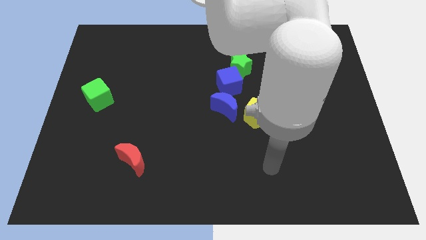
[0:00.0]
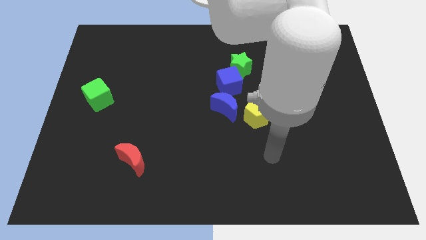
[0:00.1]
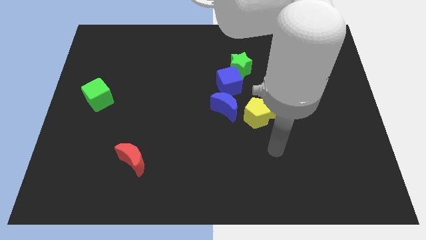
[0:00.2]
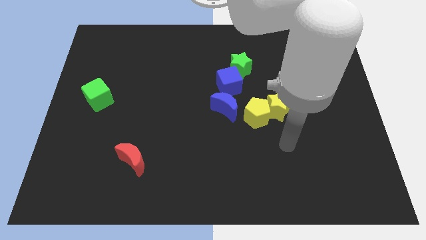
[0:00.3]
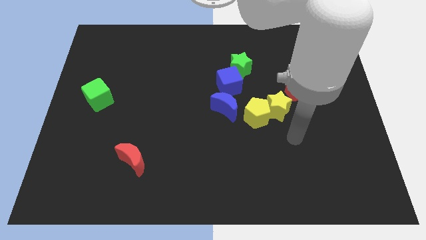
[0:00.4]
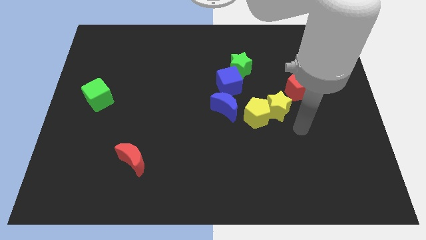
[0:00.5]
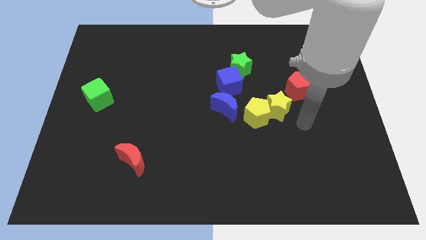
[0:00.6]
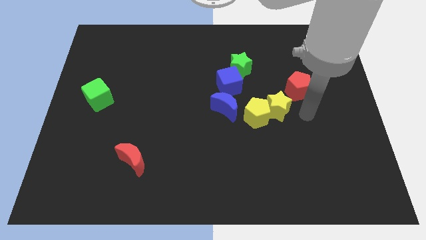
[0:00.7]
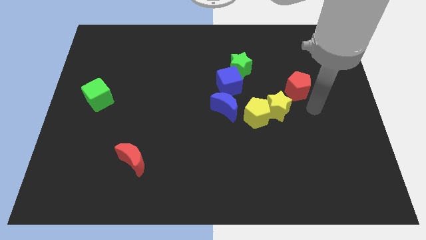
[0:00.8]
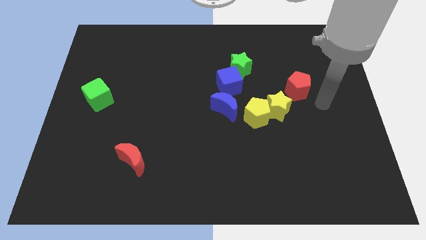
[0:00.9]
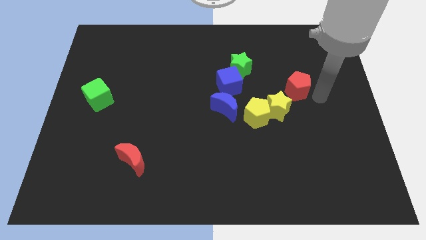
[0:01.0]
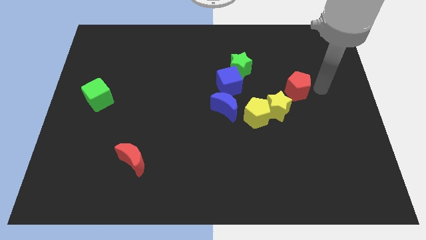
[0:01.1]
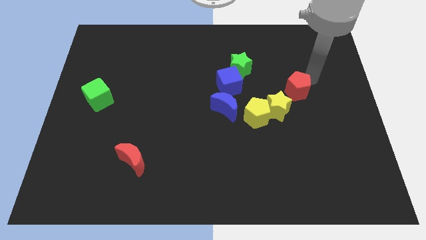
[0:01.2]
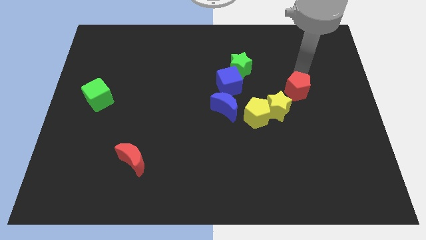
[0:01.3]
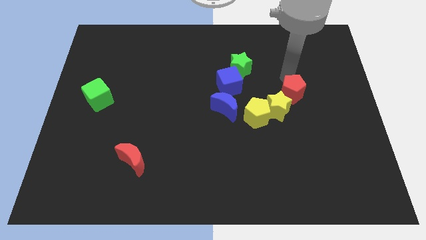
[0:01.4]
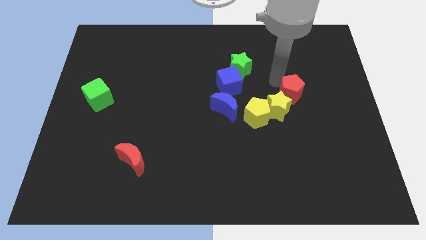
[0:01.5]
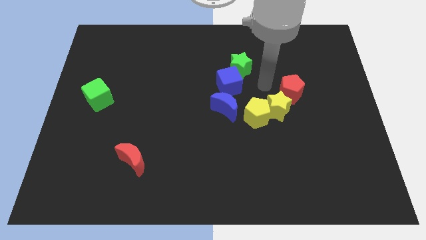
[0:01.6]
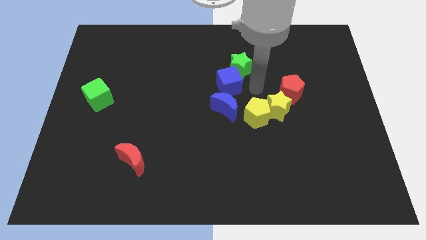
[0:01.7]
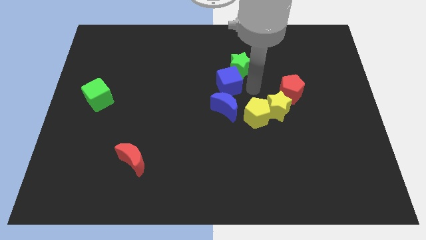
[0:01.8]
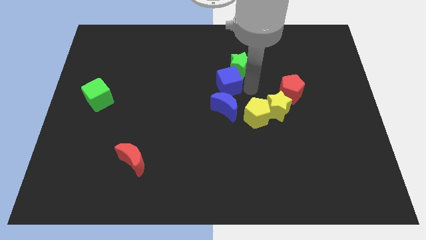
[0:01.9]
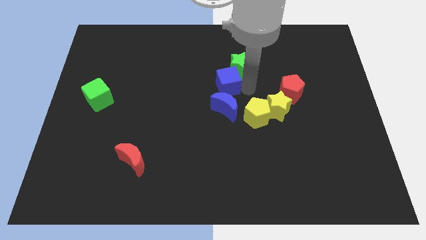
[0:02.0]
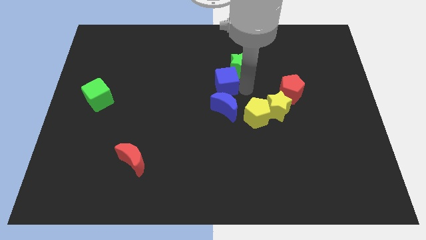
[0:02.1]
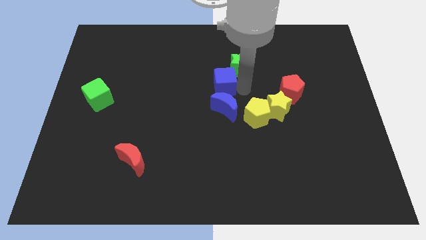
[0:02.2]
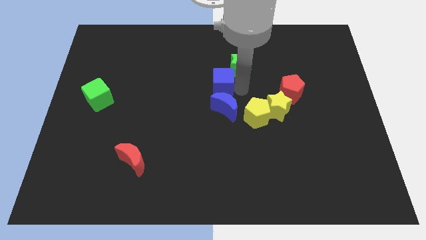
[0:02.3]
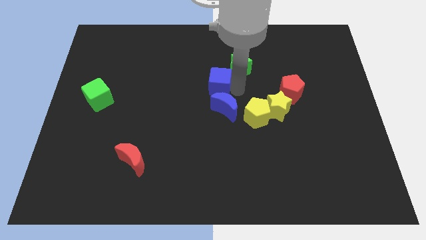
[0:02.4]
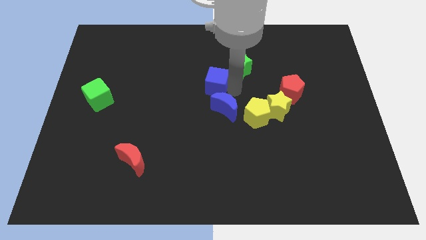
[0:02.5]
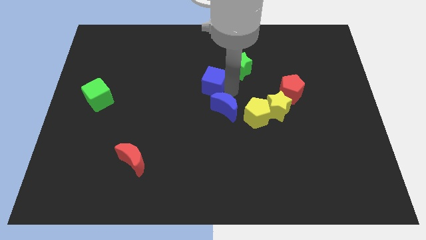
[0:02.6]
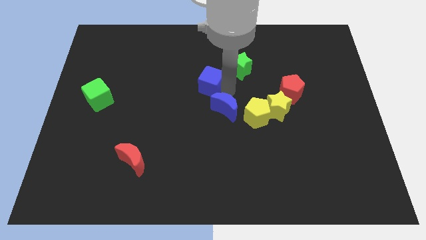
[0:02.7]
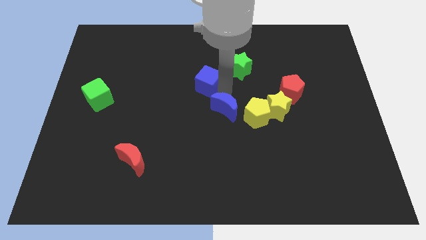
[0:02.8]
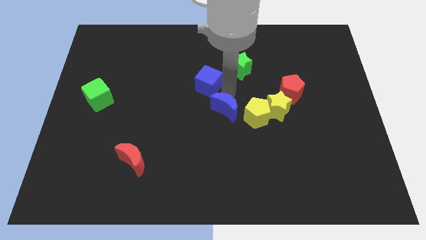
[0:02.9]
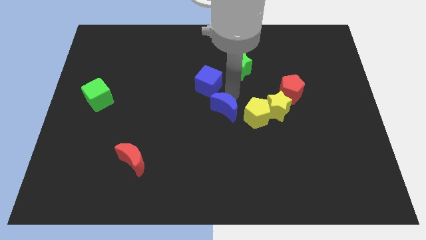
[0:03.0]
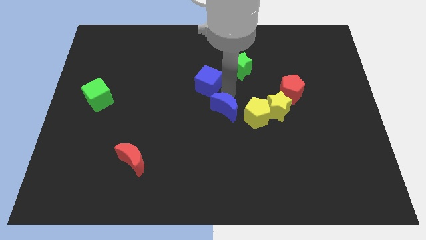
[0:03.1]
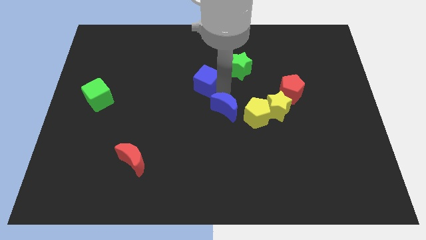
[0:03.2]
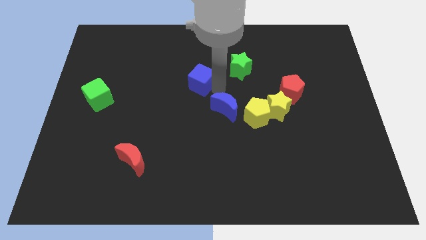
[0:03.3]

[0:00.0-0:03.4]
push the blue cube a bit left

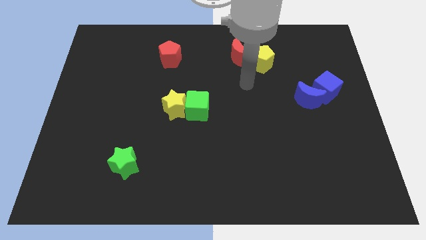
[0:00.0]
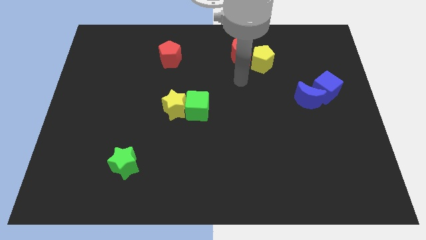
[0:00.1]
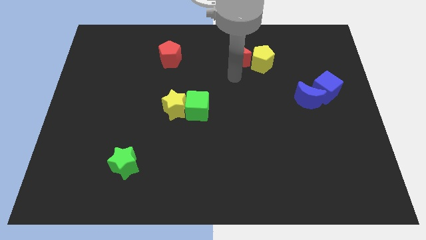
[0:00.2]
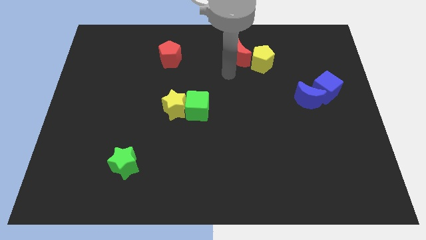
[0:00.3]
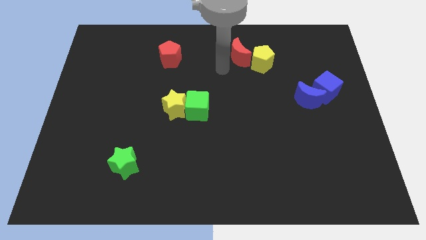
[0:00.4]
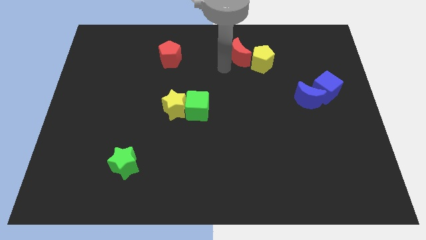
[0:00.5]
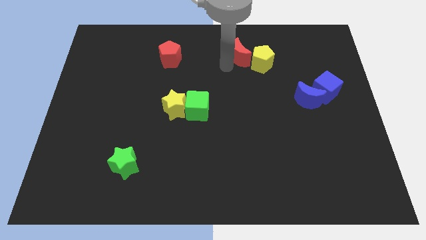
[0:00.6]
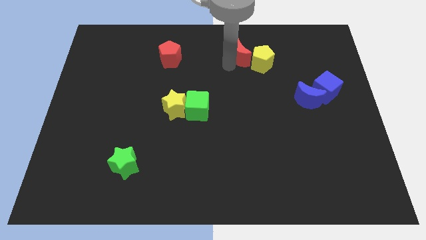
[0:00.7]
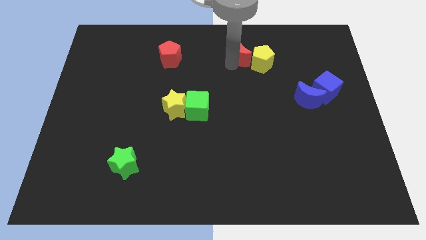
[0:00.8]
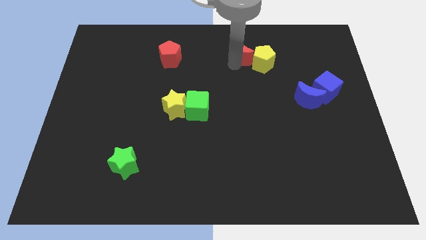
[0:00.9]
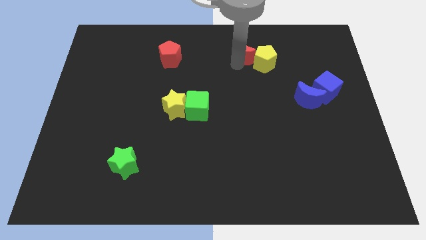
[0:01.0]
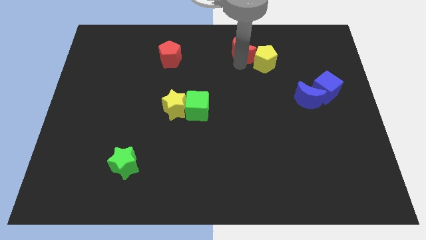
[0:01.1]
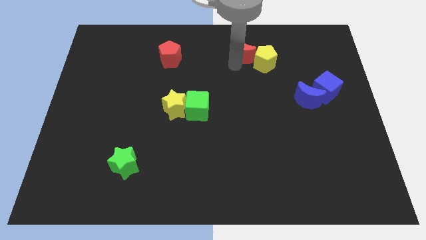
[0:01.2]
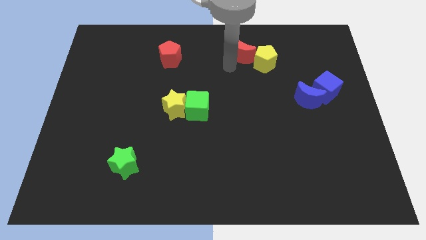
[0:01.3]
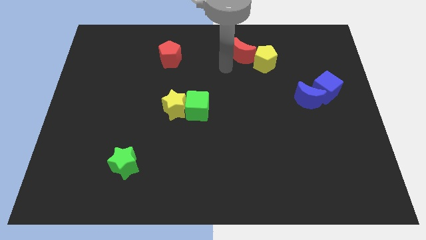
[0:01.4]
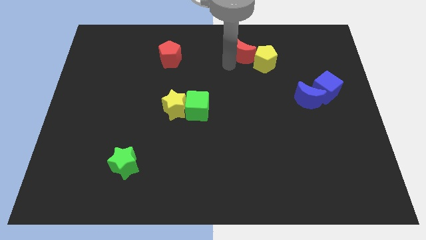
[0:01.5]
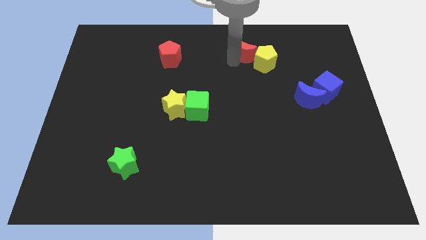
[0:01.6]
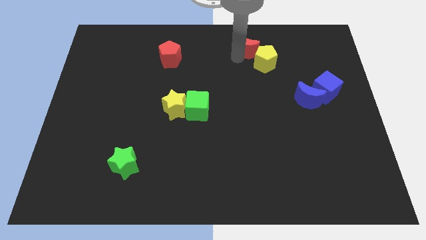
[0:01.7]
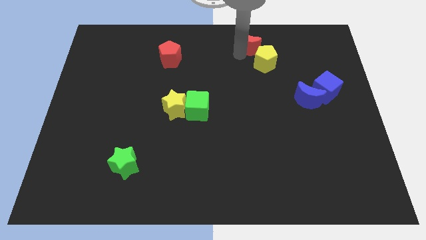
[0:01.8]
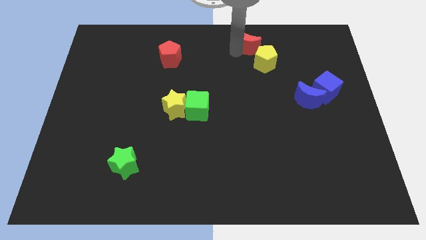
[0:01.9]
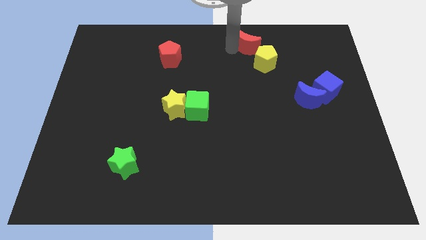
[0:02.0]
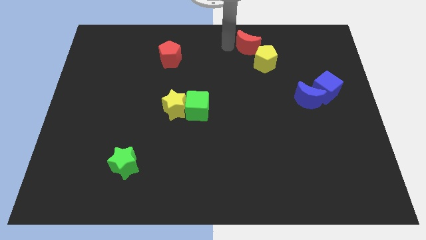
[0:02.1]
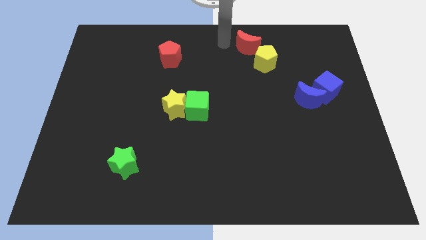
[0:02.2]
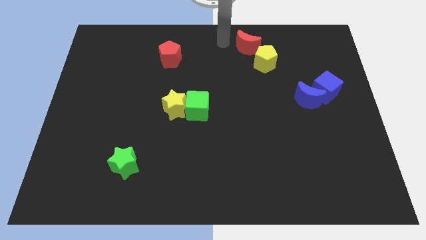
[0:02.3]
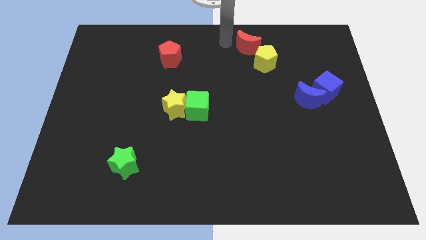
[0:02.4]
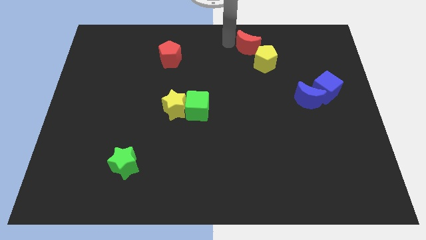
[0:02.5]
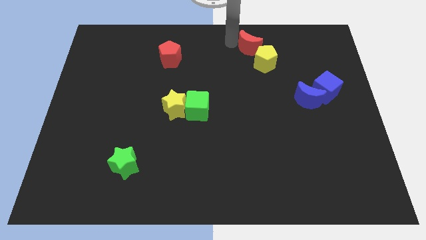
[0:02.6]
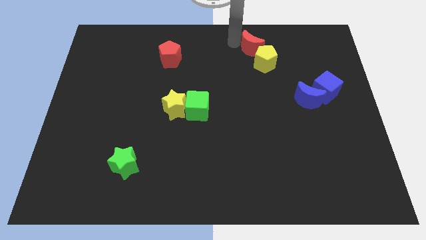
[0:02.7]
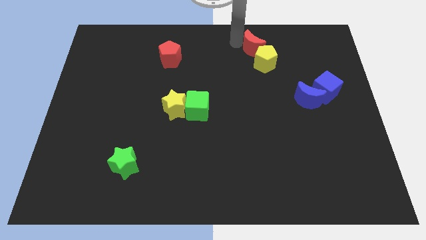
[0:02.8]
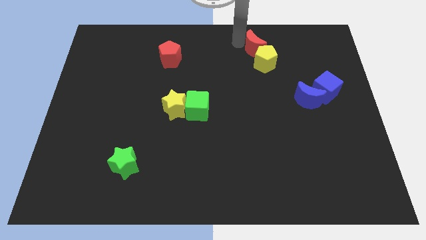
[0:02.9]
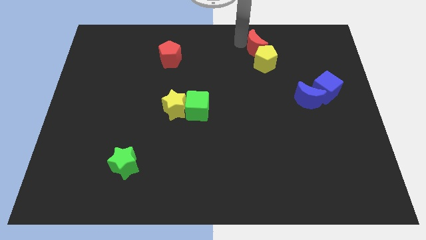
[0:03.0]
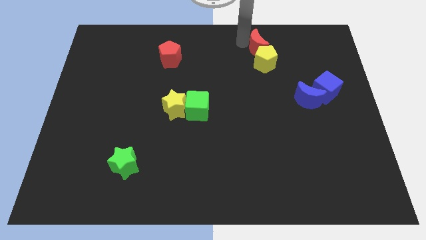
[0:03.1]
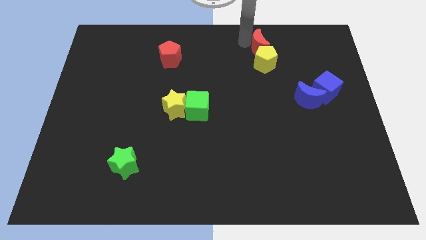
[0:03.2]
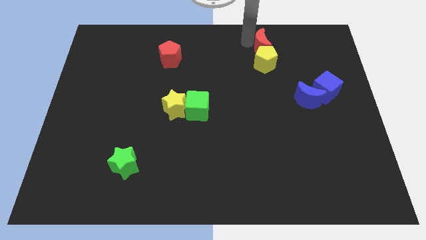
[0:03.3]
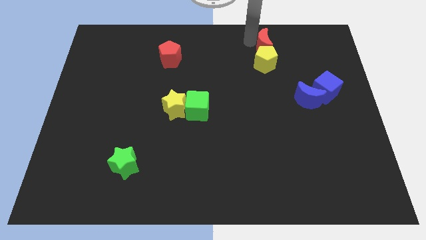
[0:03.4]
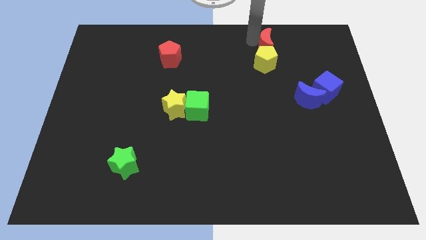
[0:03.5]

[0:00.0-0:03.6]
slide the red moon a little right

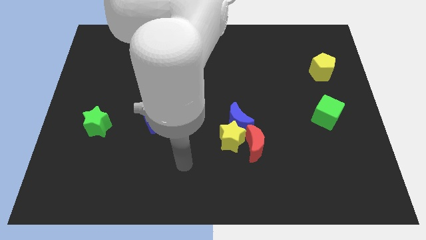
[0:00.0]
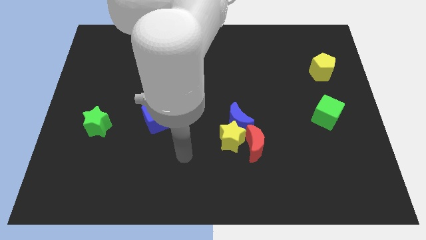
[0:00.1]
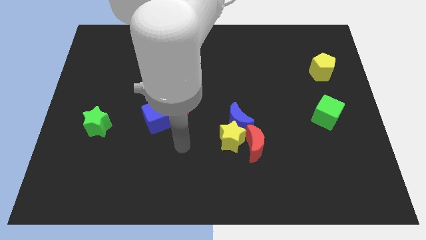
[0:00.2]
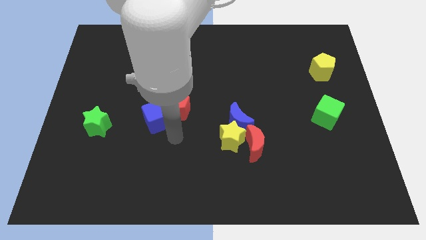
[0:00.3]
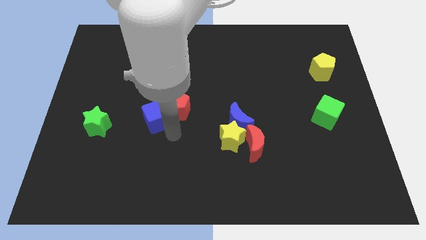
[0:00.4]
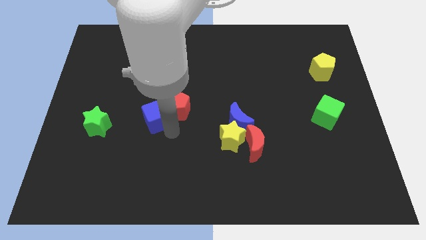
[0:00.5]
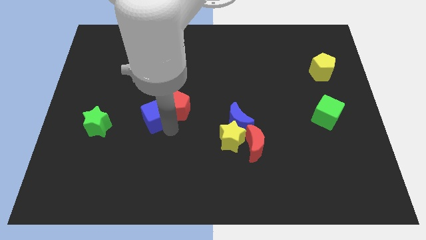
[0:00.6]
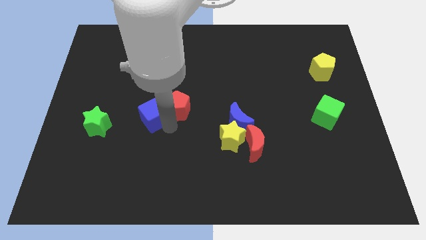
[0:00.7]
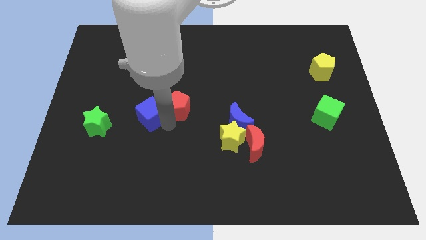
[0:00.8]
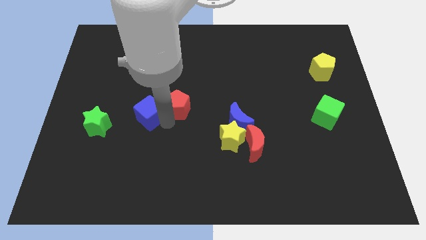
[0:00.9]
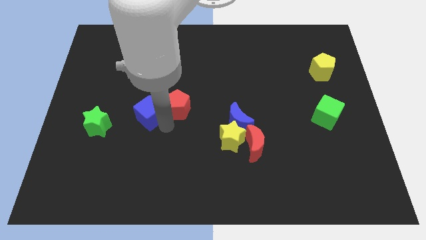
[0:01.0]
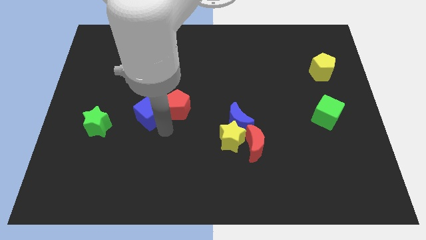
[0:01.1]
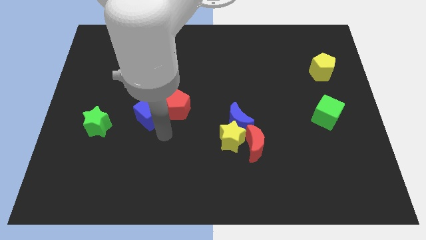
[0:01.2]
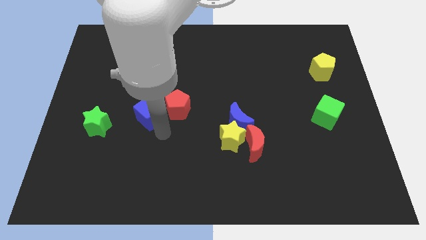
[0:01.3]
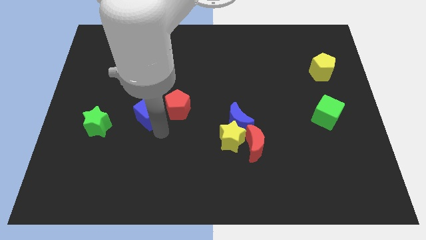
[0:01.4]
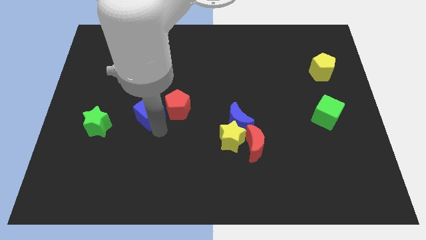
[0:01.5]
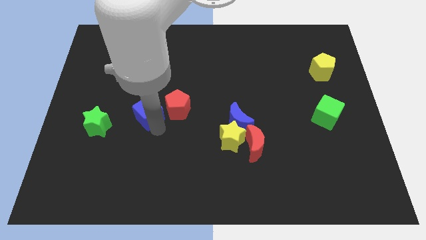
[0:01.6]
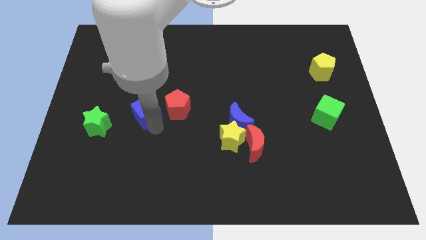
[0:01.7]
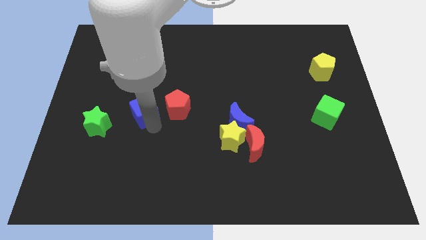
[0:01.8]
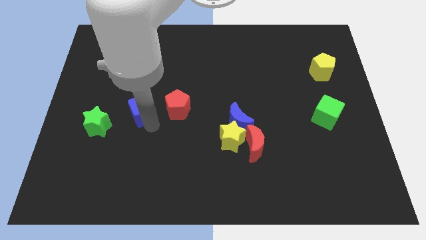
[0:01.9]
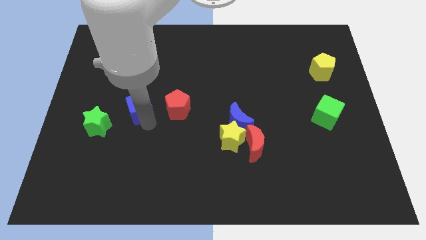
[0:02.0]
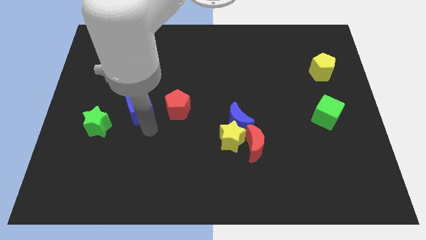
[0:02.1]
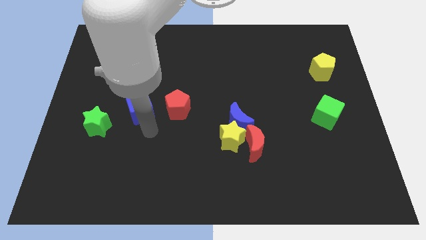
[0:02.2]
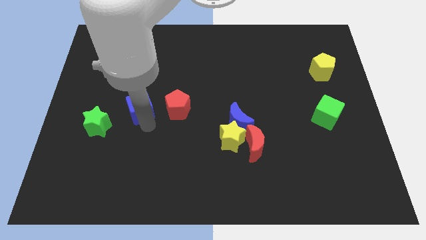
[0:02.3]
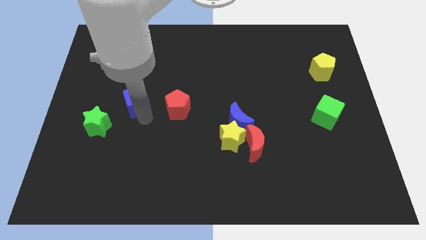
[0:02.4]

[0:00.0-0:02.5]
move the blue cube up and to the left slightly
